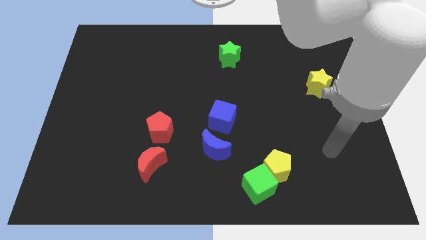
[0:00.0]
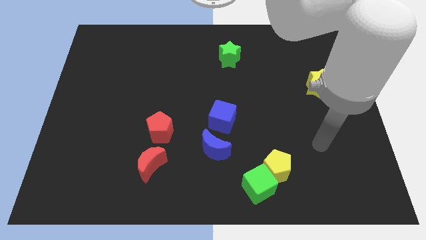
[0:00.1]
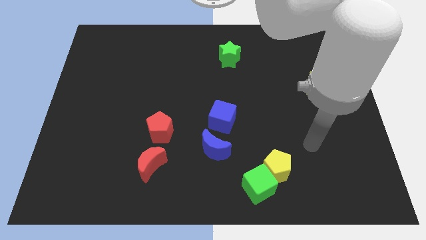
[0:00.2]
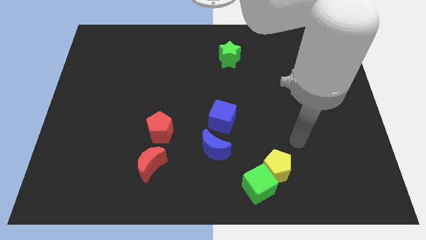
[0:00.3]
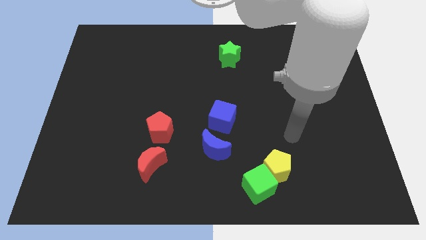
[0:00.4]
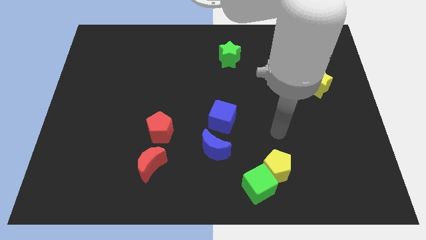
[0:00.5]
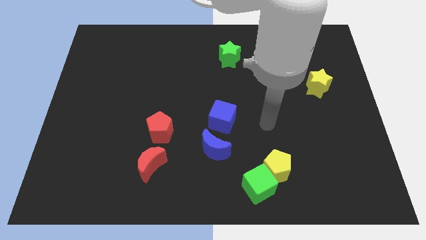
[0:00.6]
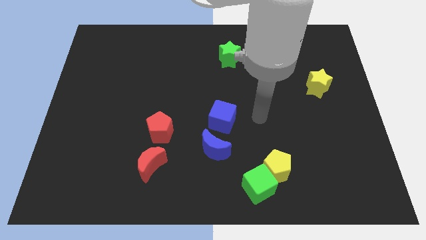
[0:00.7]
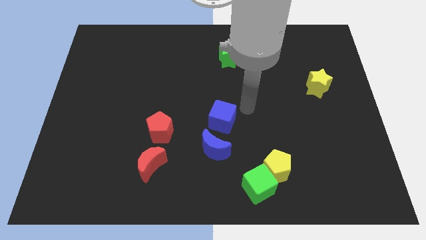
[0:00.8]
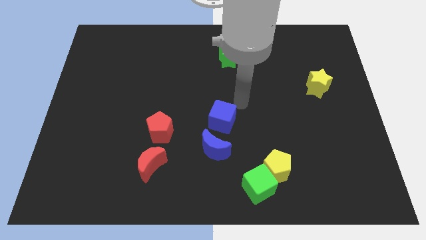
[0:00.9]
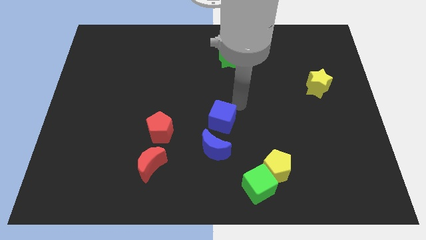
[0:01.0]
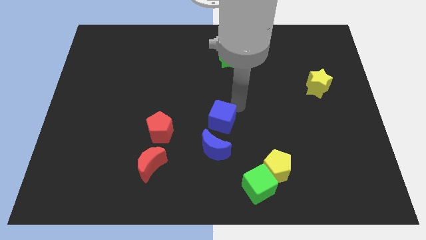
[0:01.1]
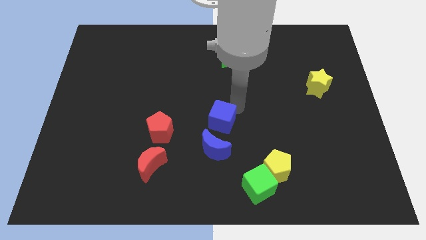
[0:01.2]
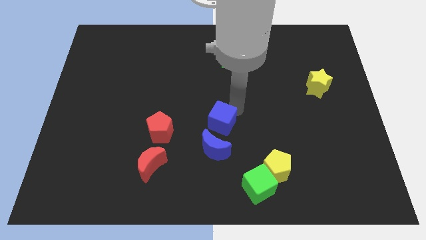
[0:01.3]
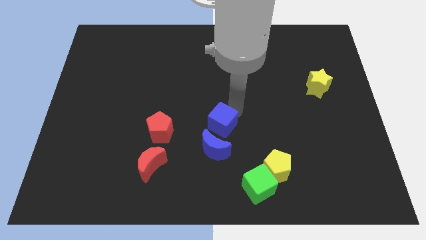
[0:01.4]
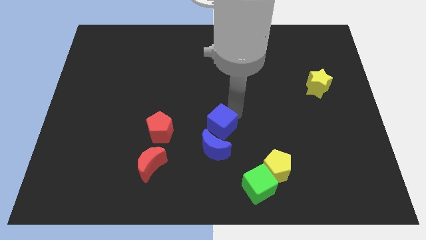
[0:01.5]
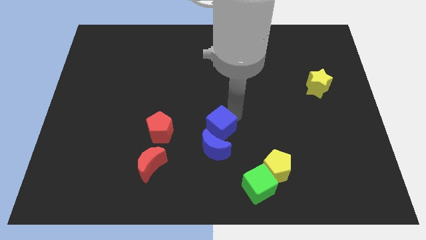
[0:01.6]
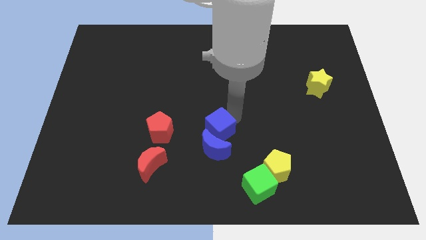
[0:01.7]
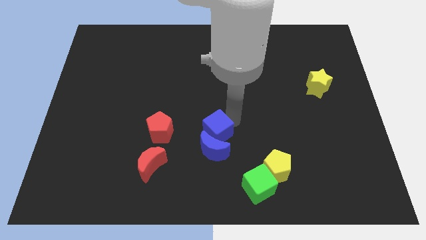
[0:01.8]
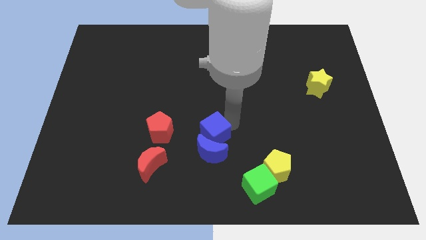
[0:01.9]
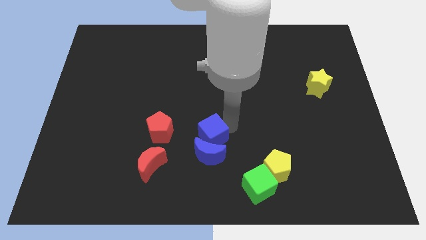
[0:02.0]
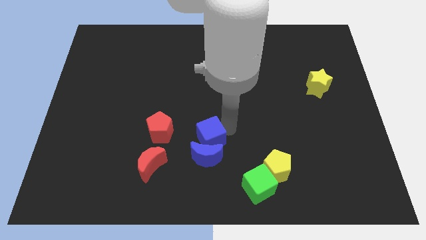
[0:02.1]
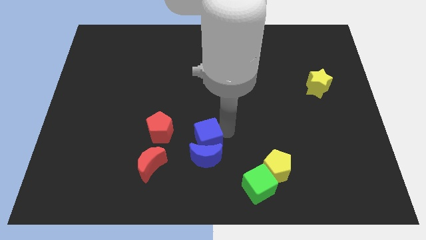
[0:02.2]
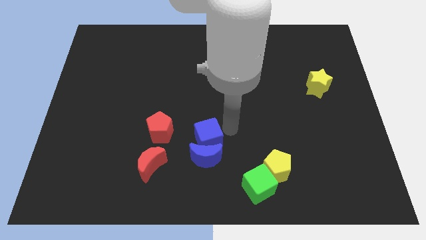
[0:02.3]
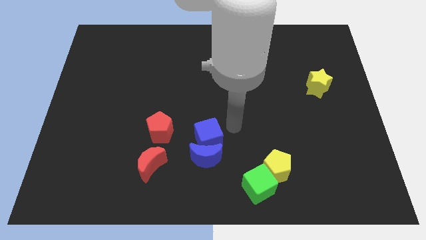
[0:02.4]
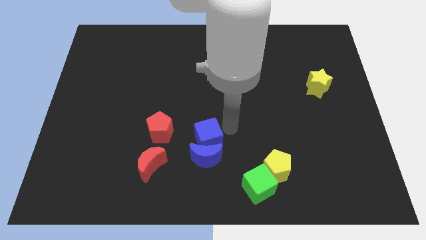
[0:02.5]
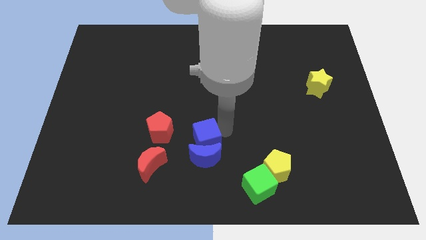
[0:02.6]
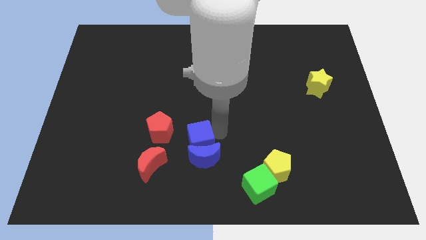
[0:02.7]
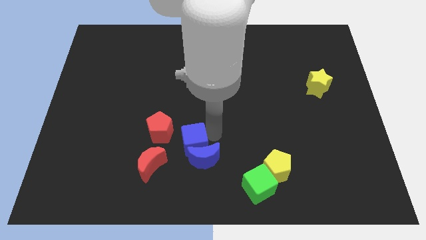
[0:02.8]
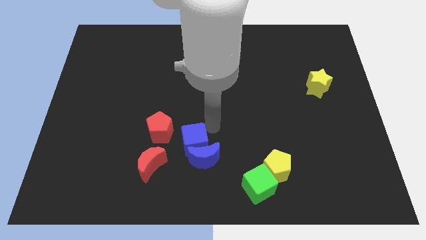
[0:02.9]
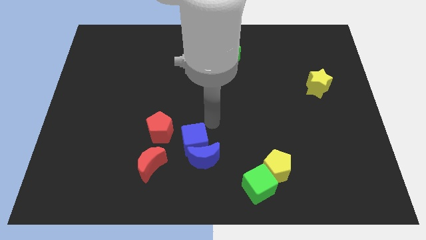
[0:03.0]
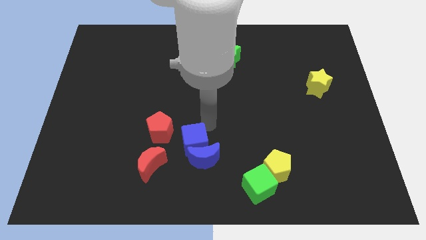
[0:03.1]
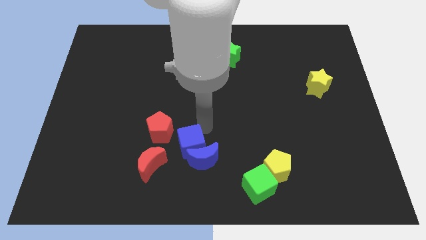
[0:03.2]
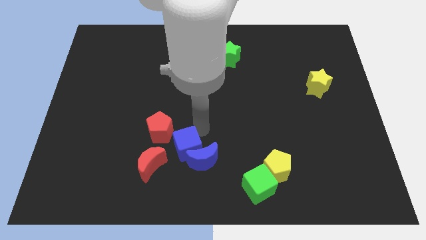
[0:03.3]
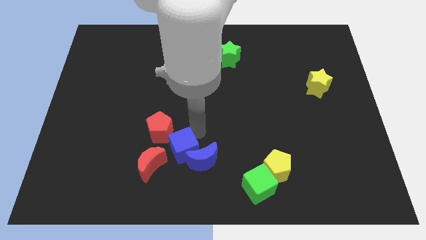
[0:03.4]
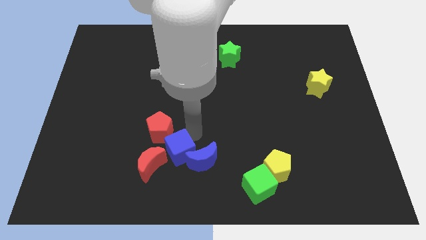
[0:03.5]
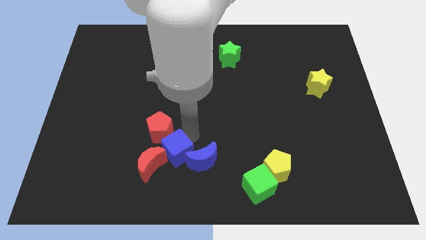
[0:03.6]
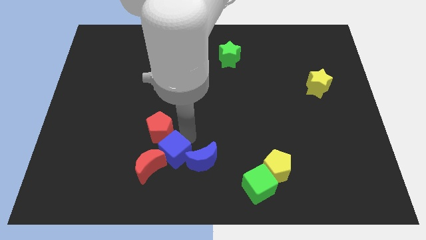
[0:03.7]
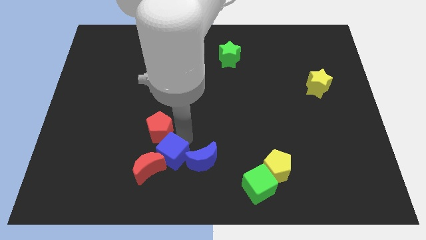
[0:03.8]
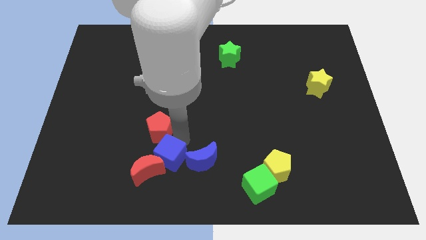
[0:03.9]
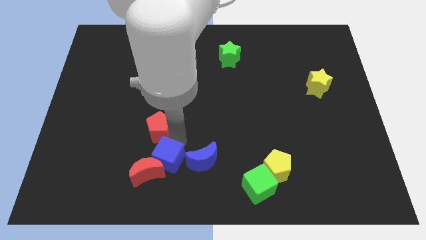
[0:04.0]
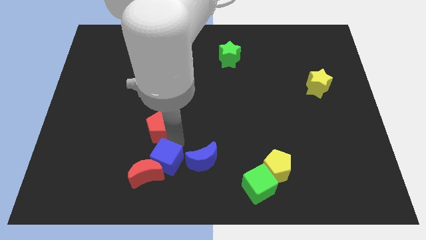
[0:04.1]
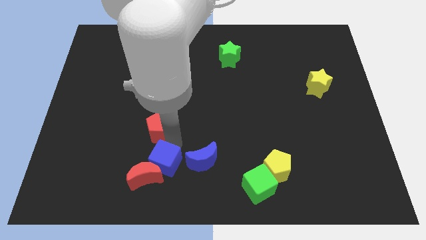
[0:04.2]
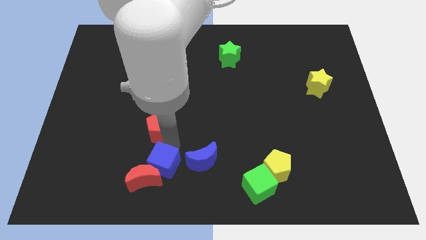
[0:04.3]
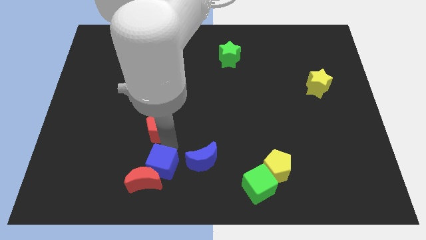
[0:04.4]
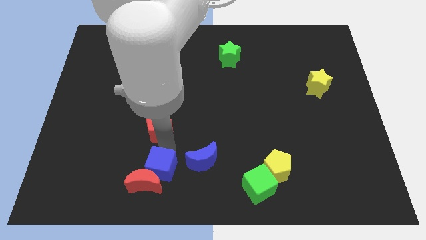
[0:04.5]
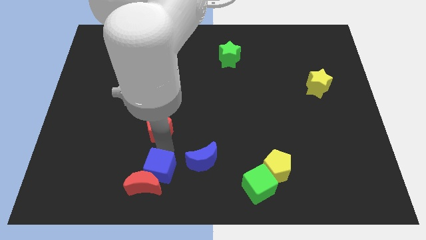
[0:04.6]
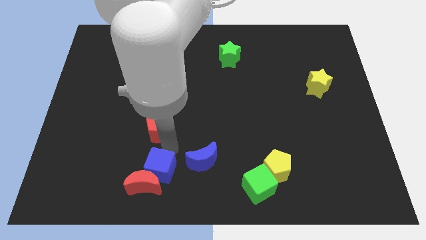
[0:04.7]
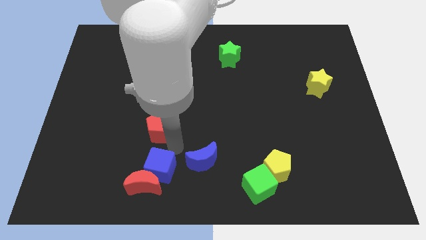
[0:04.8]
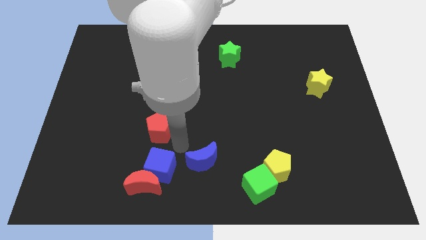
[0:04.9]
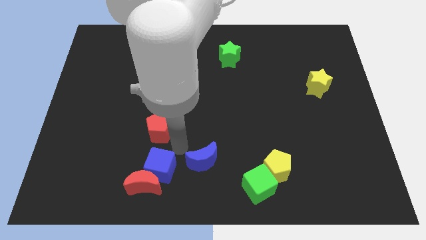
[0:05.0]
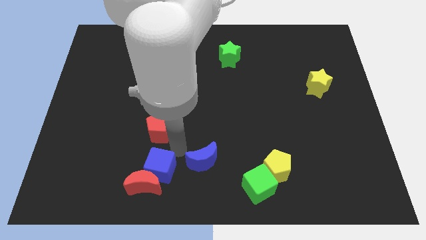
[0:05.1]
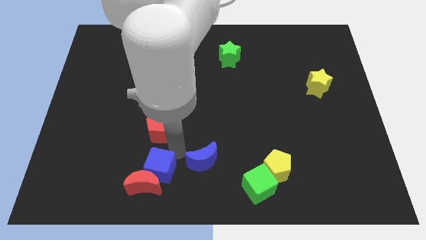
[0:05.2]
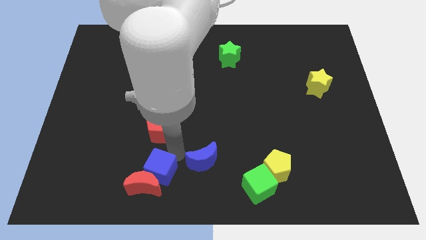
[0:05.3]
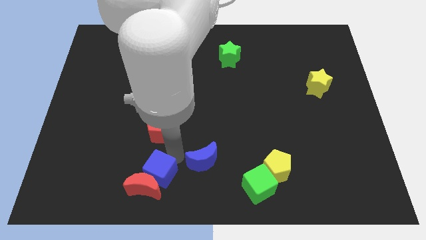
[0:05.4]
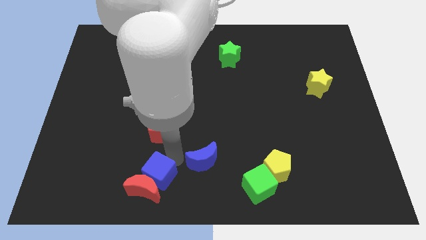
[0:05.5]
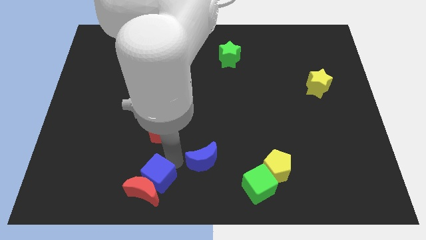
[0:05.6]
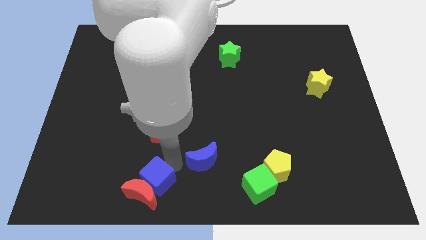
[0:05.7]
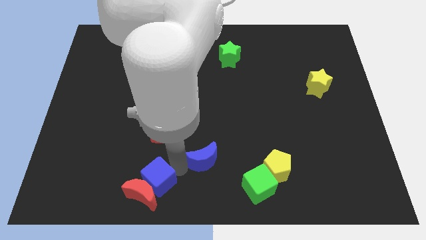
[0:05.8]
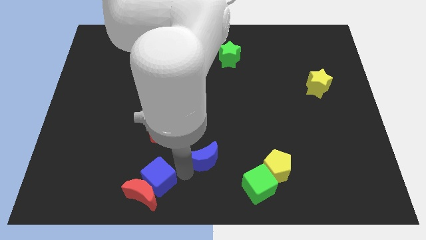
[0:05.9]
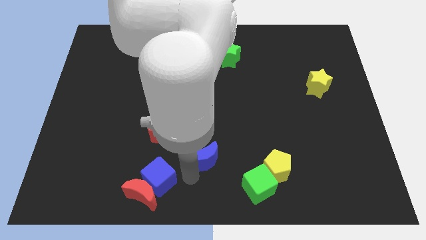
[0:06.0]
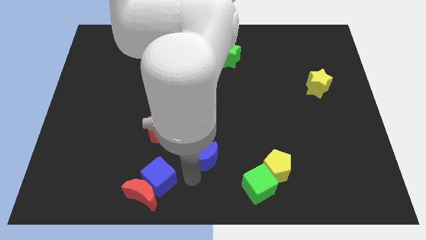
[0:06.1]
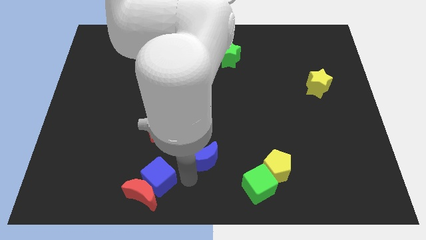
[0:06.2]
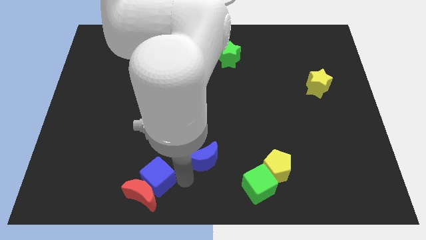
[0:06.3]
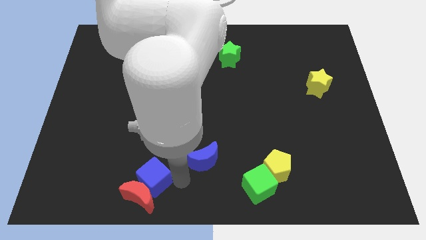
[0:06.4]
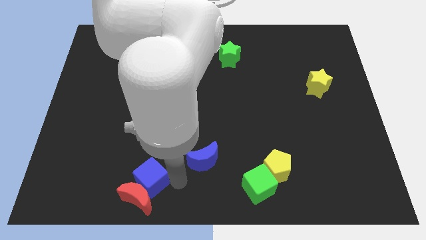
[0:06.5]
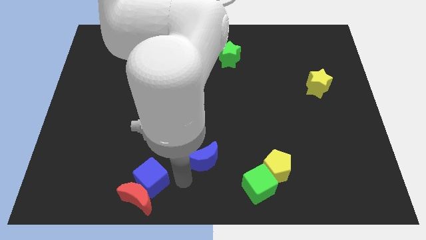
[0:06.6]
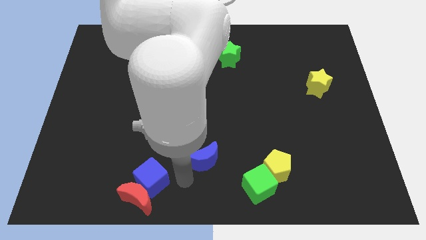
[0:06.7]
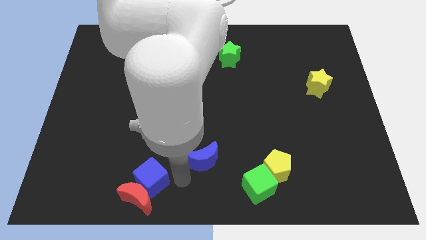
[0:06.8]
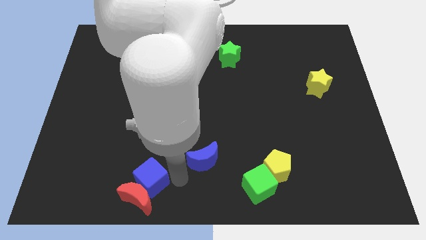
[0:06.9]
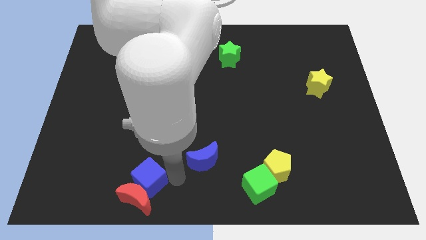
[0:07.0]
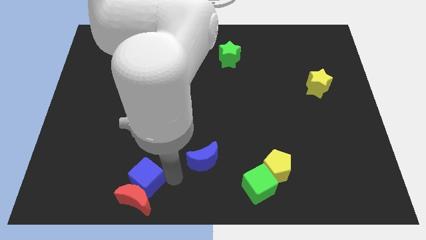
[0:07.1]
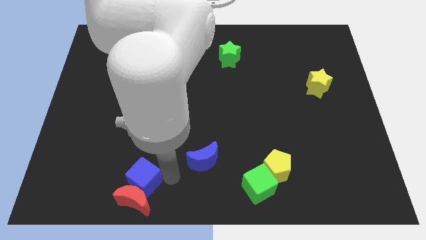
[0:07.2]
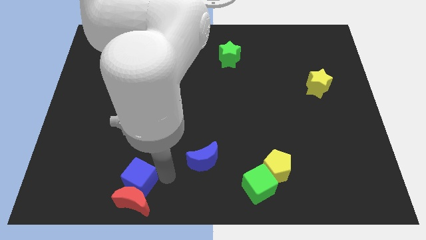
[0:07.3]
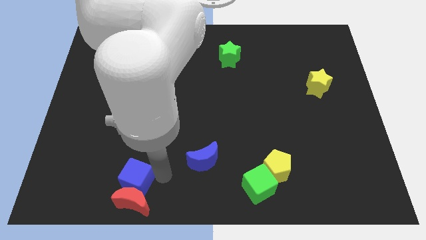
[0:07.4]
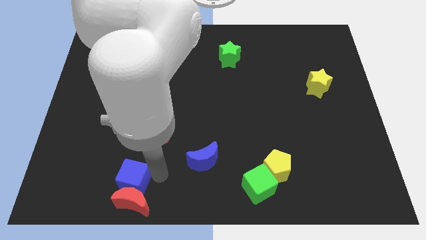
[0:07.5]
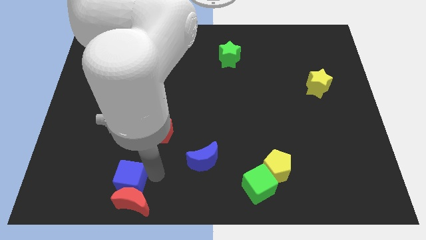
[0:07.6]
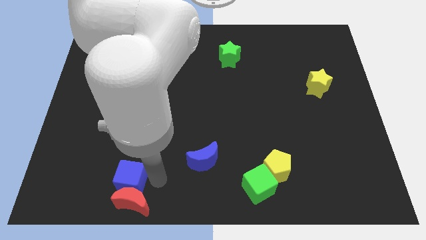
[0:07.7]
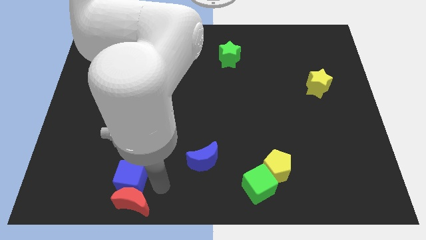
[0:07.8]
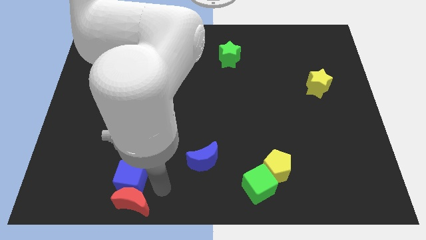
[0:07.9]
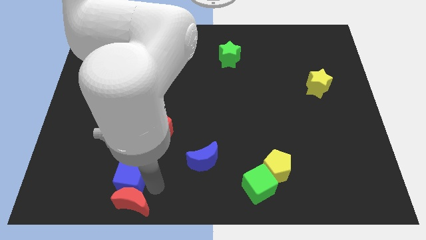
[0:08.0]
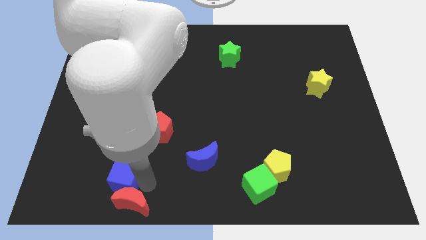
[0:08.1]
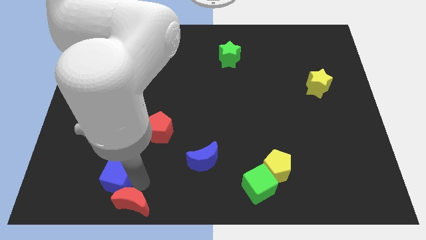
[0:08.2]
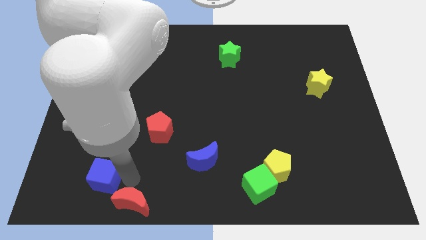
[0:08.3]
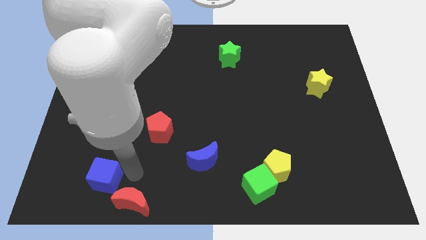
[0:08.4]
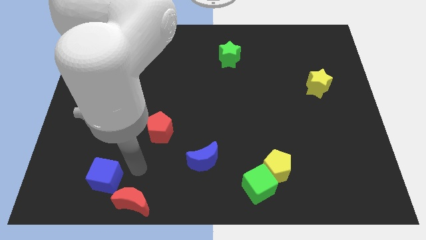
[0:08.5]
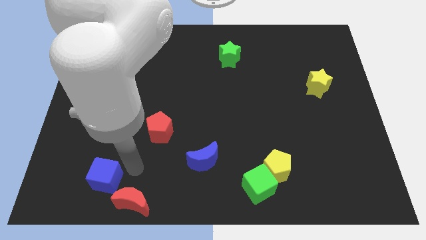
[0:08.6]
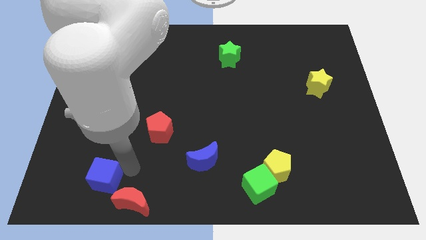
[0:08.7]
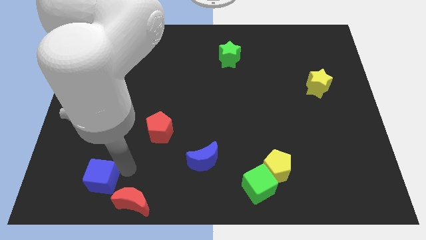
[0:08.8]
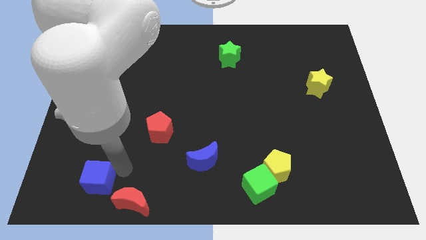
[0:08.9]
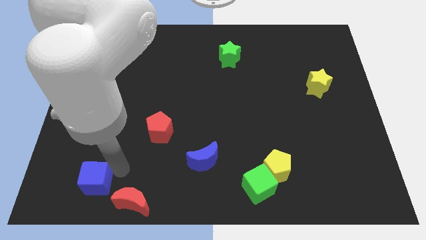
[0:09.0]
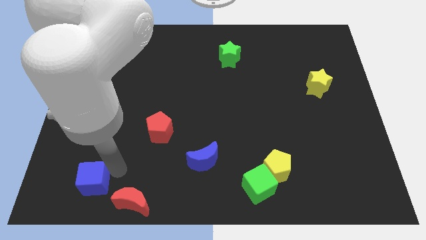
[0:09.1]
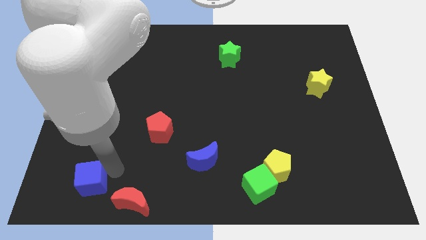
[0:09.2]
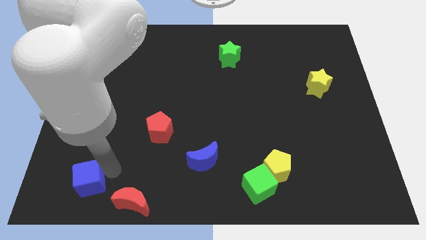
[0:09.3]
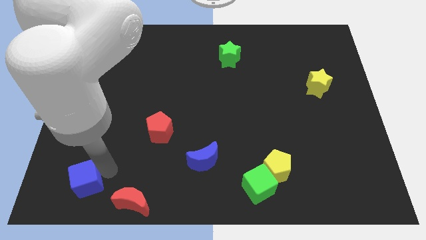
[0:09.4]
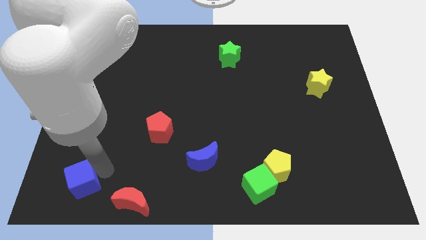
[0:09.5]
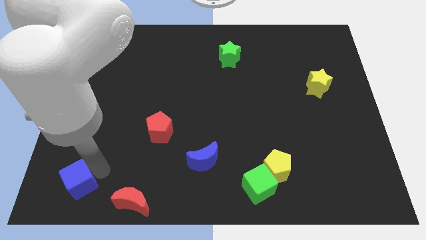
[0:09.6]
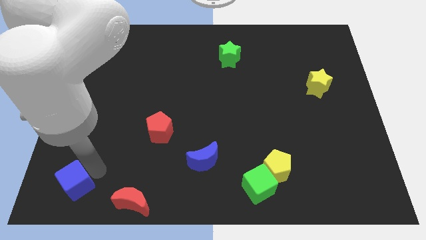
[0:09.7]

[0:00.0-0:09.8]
push the blue cube to the bottom left of the board
